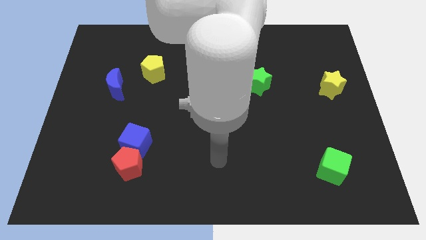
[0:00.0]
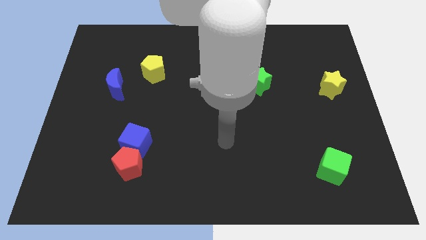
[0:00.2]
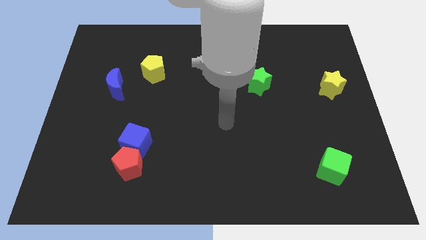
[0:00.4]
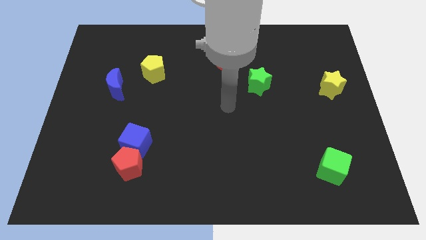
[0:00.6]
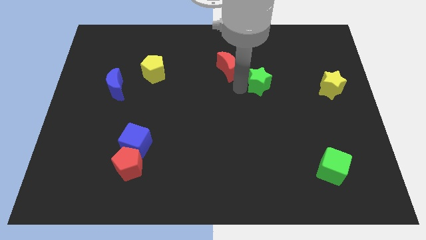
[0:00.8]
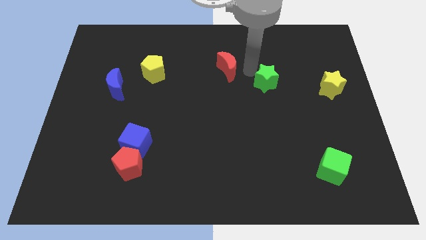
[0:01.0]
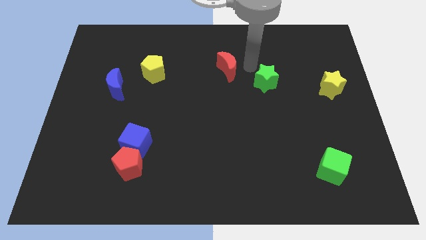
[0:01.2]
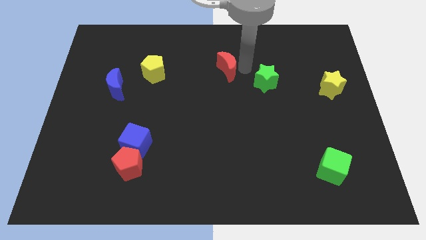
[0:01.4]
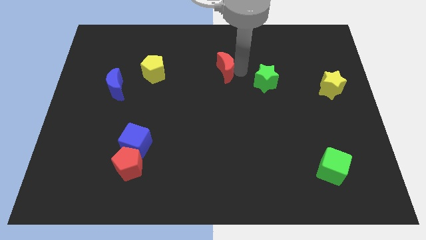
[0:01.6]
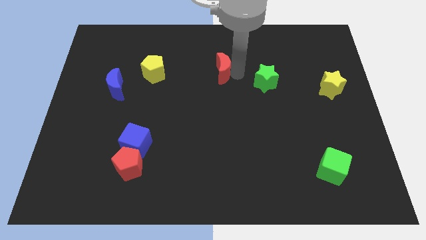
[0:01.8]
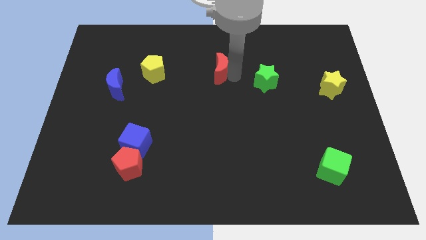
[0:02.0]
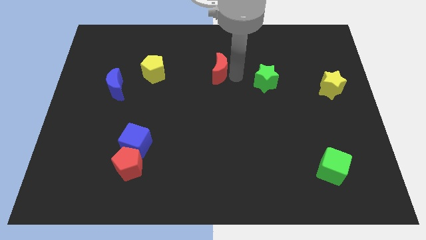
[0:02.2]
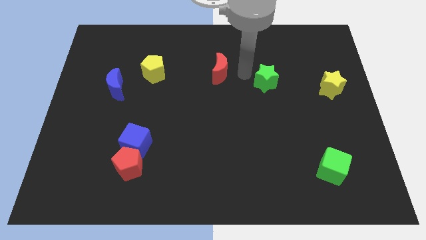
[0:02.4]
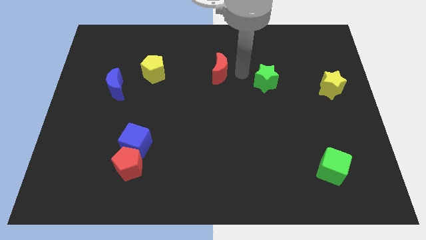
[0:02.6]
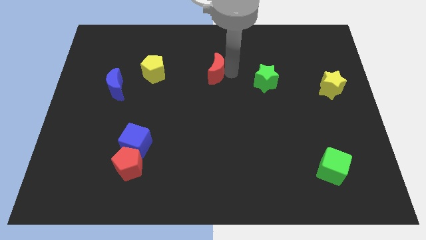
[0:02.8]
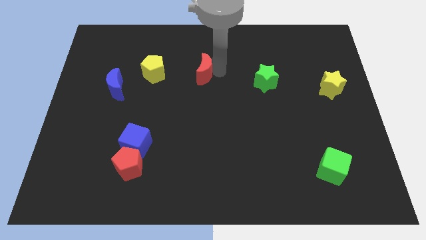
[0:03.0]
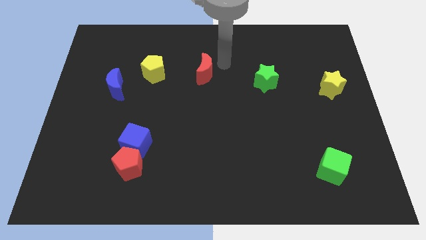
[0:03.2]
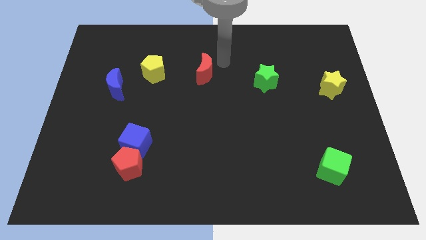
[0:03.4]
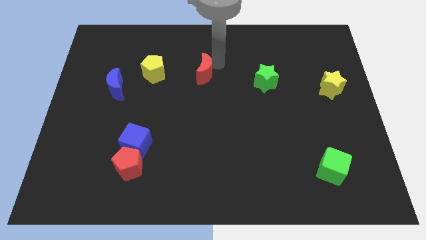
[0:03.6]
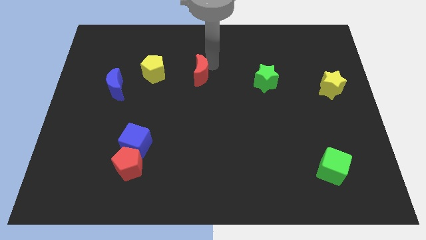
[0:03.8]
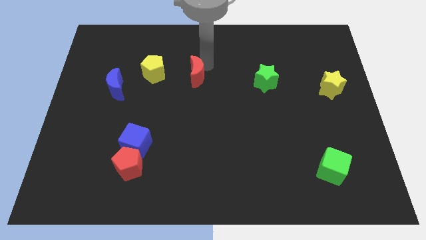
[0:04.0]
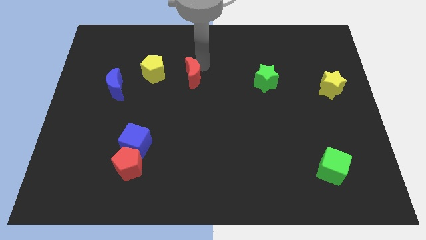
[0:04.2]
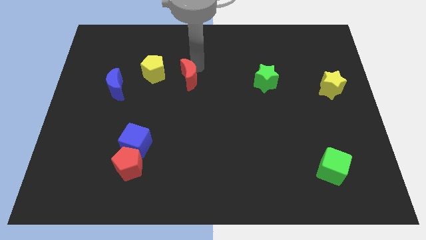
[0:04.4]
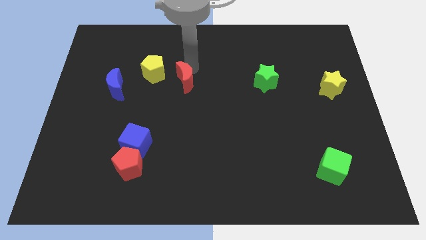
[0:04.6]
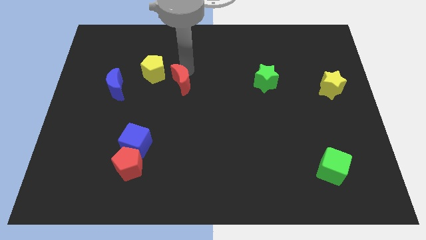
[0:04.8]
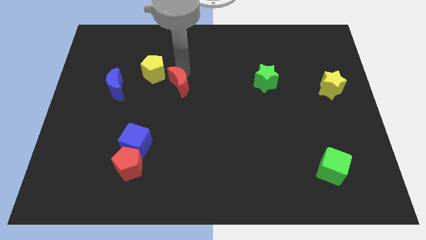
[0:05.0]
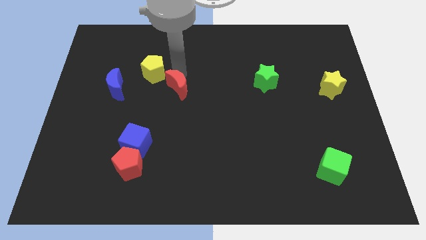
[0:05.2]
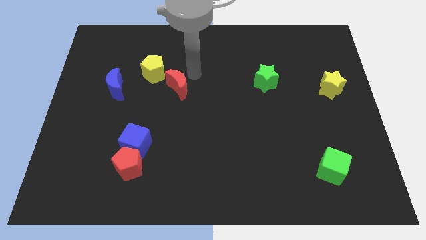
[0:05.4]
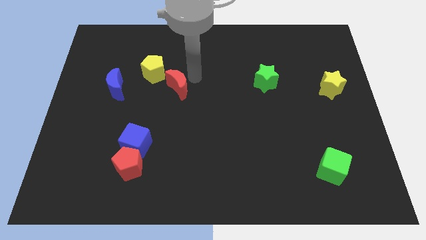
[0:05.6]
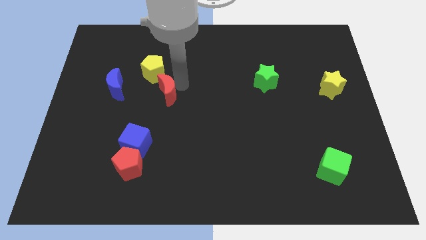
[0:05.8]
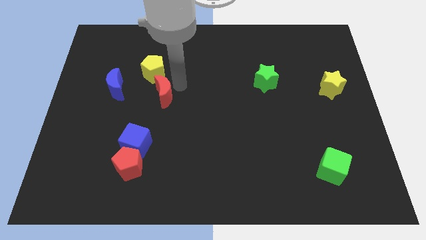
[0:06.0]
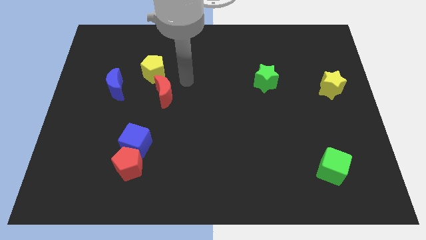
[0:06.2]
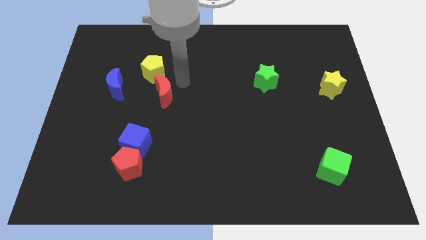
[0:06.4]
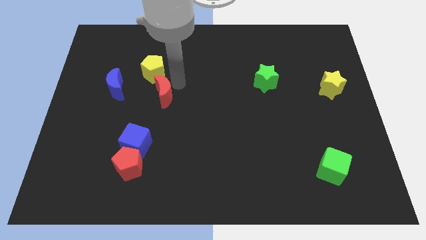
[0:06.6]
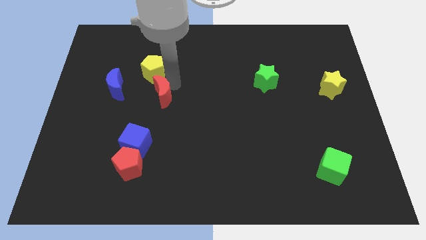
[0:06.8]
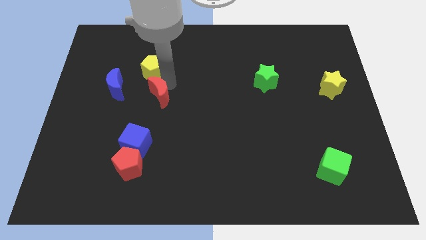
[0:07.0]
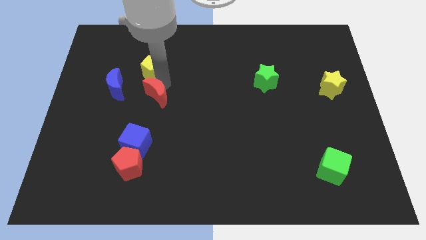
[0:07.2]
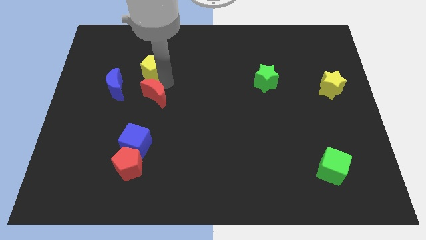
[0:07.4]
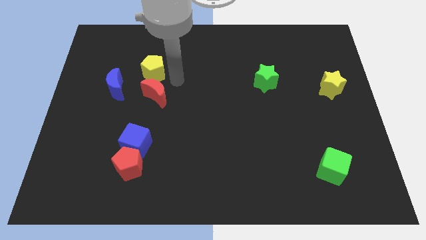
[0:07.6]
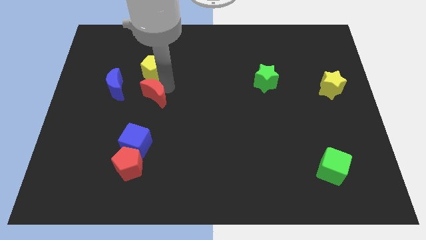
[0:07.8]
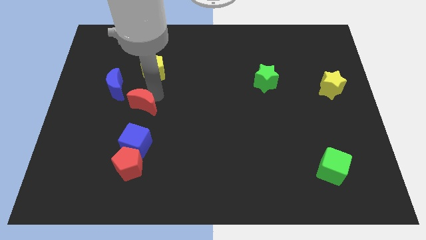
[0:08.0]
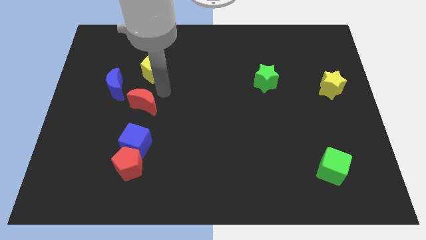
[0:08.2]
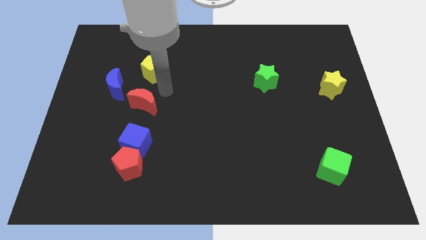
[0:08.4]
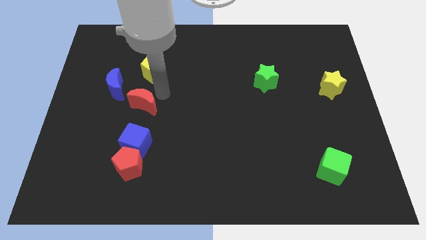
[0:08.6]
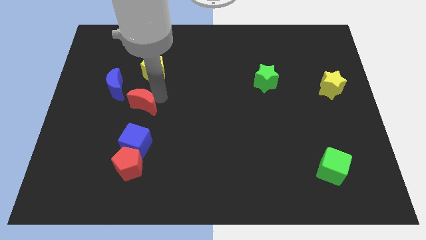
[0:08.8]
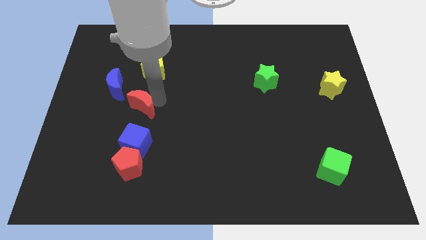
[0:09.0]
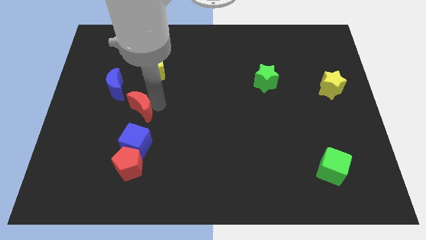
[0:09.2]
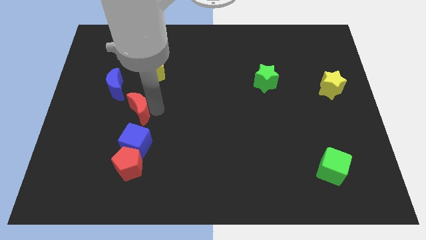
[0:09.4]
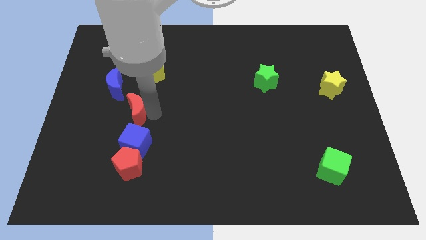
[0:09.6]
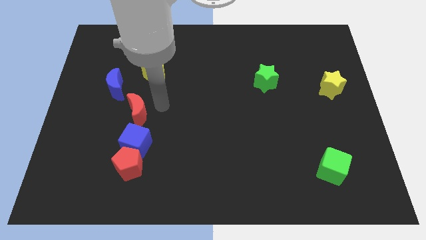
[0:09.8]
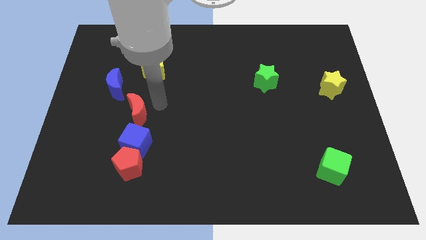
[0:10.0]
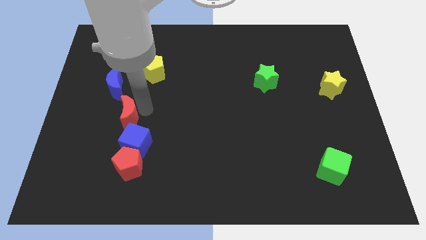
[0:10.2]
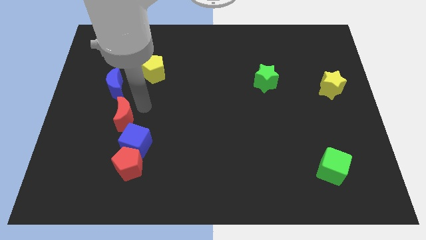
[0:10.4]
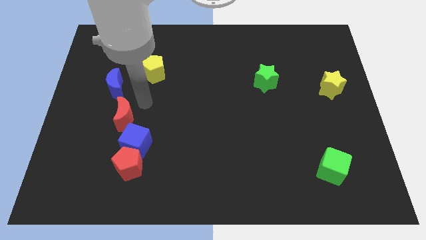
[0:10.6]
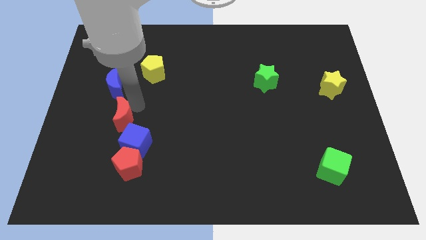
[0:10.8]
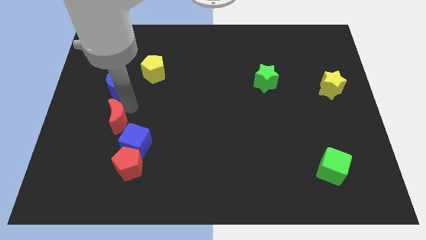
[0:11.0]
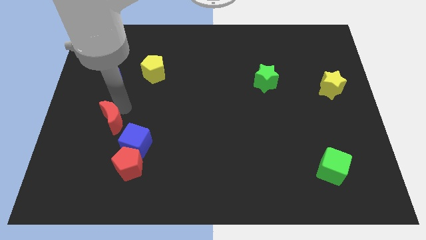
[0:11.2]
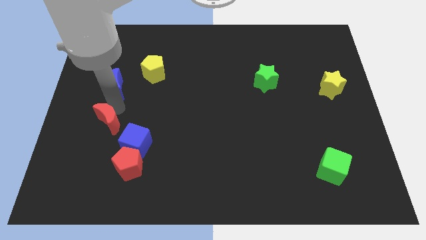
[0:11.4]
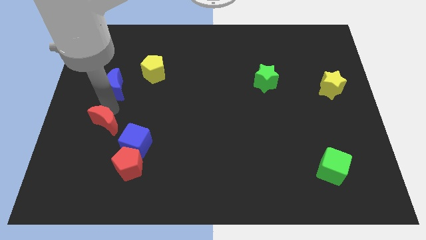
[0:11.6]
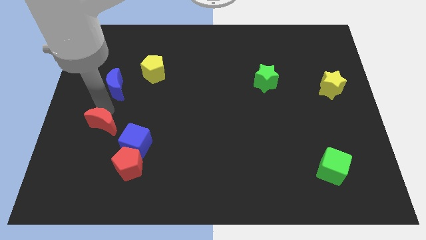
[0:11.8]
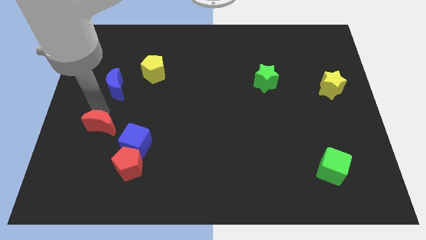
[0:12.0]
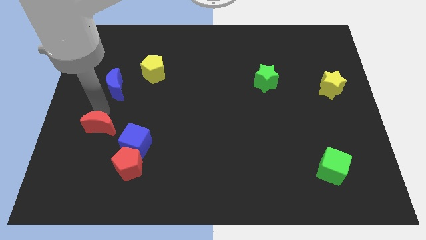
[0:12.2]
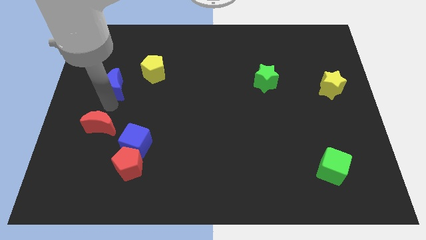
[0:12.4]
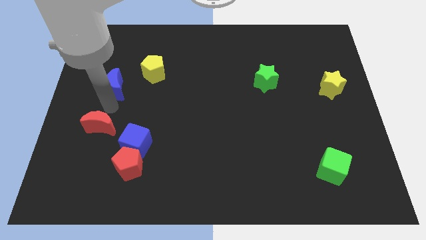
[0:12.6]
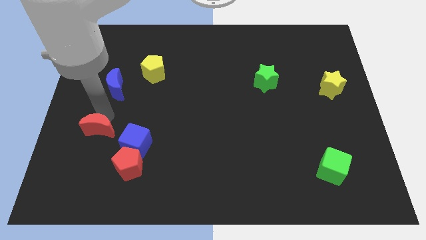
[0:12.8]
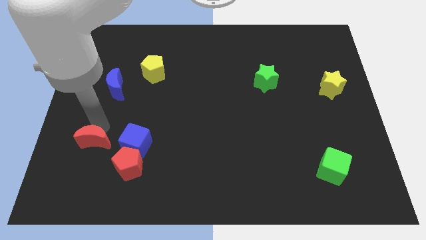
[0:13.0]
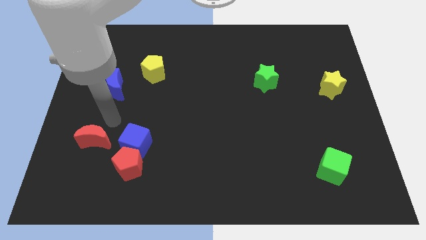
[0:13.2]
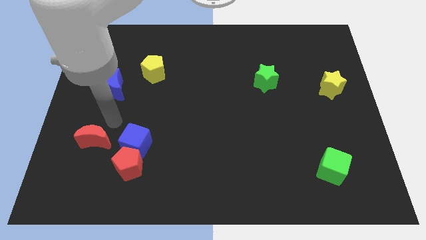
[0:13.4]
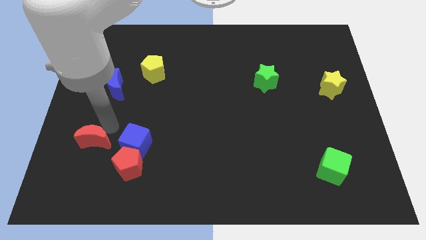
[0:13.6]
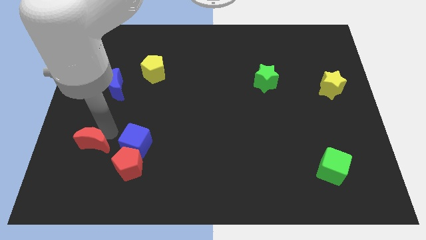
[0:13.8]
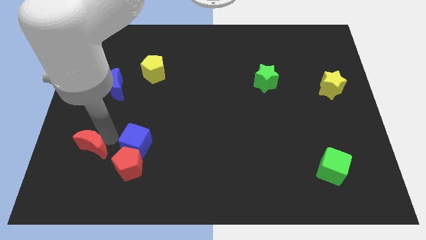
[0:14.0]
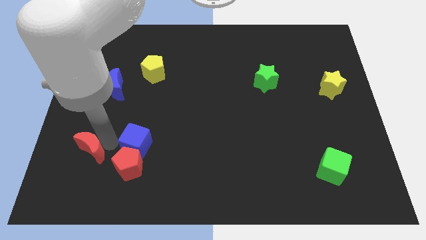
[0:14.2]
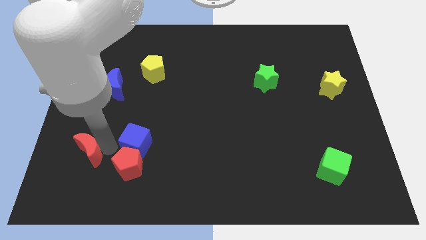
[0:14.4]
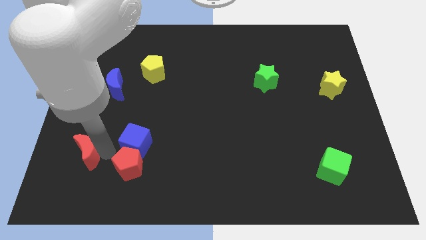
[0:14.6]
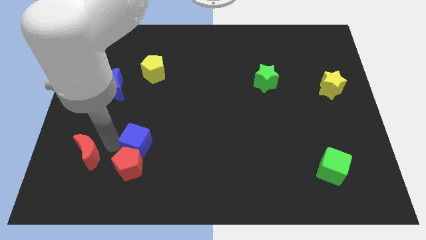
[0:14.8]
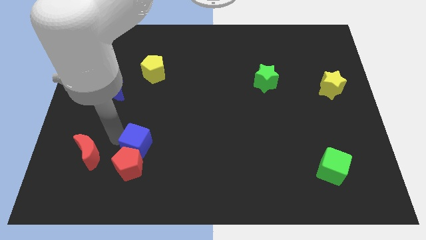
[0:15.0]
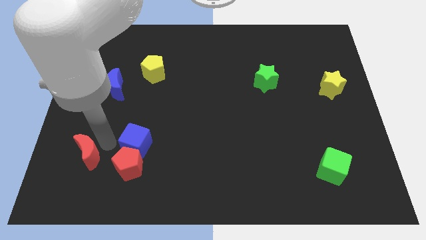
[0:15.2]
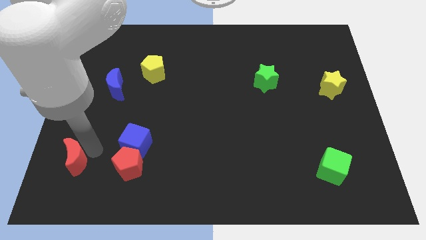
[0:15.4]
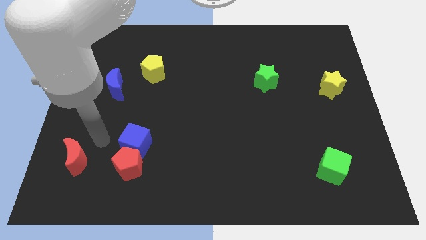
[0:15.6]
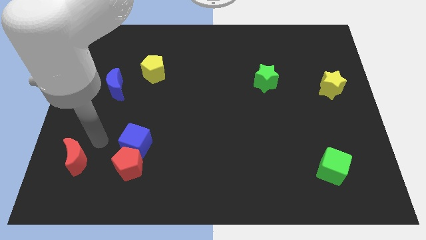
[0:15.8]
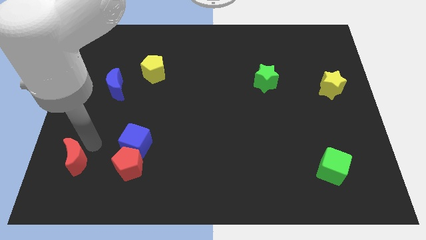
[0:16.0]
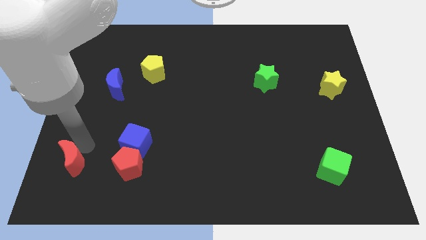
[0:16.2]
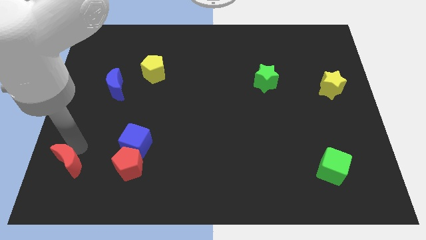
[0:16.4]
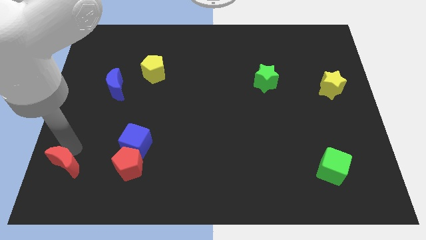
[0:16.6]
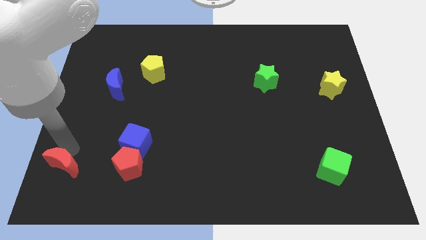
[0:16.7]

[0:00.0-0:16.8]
slide the red moon to the bottom left

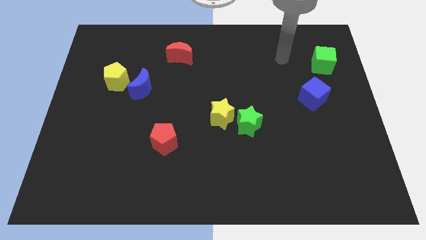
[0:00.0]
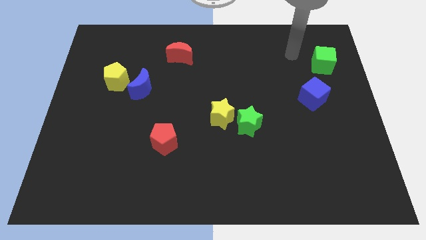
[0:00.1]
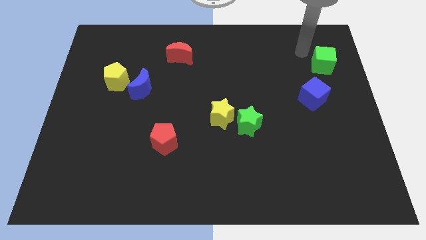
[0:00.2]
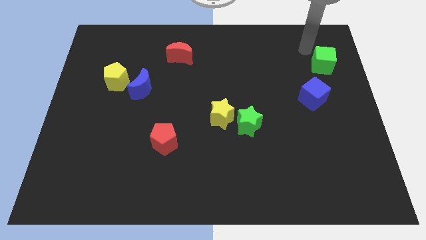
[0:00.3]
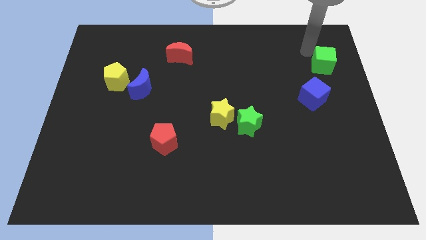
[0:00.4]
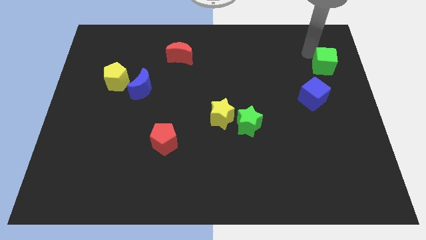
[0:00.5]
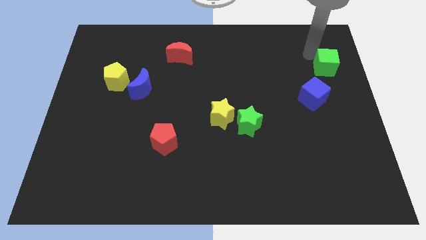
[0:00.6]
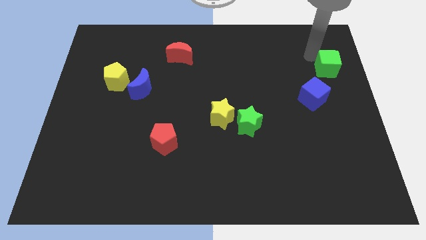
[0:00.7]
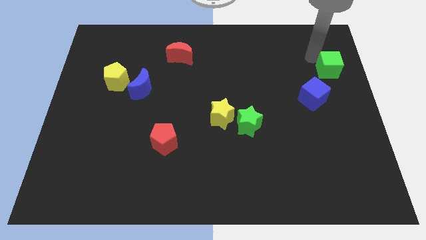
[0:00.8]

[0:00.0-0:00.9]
slide the green cube to the right side of the board
